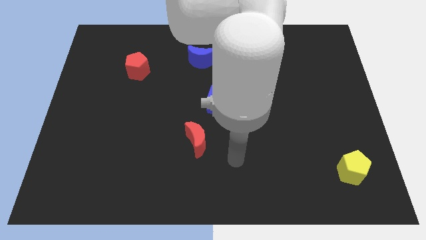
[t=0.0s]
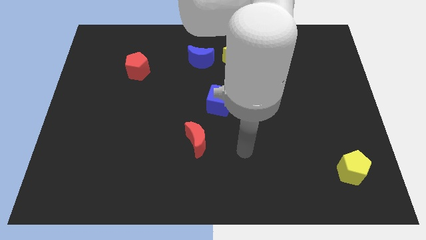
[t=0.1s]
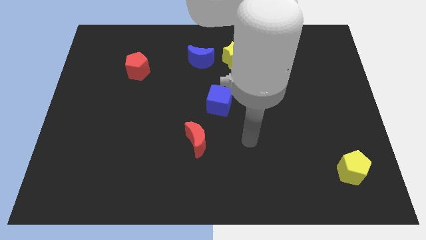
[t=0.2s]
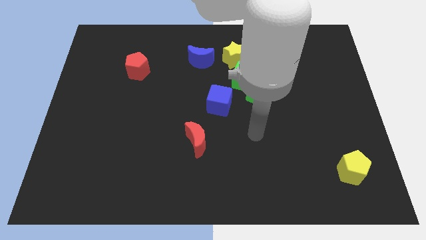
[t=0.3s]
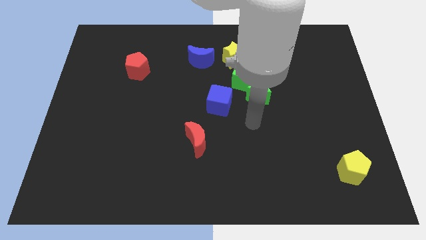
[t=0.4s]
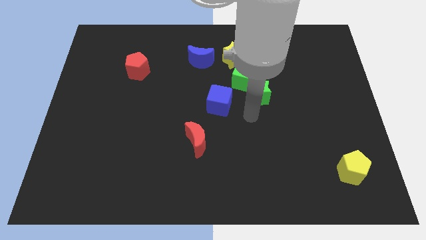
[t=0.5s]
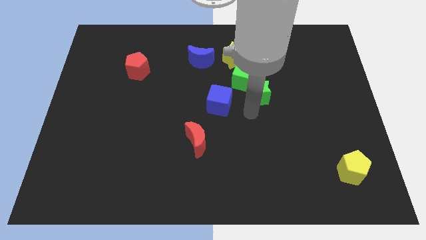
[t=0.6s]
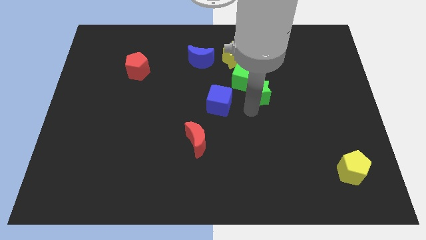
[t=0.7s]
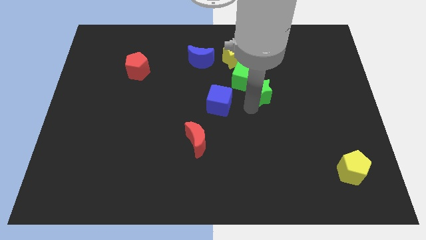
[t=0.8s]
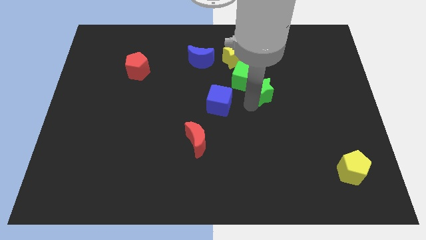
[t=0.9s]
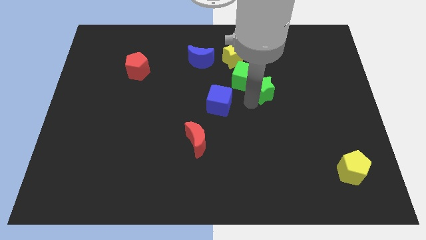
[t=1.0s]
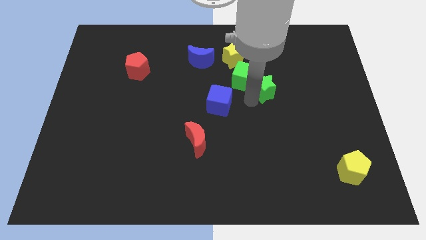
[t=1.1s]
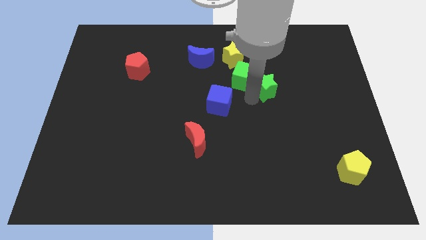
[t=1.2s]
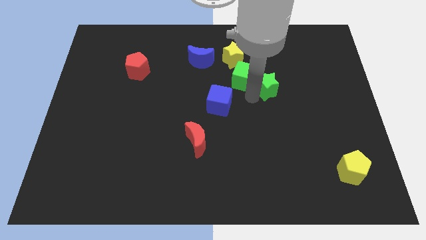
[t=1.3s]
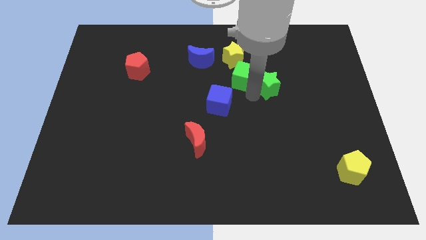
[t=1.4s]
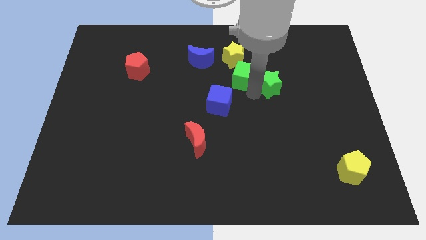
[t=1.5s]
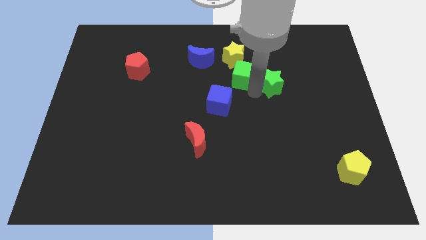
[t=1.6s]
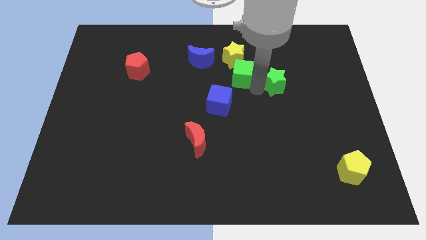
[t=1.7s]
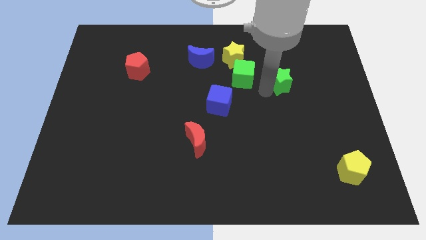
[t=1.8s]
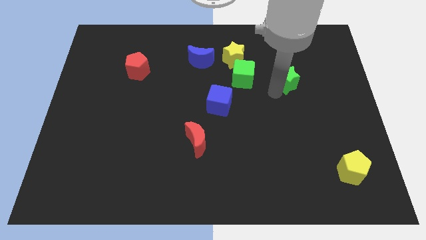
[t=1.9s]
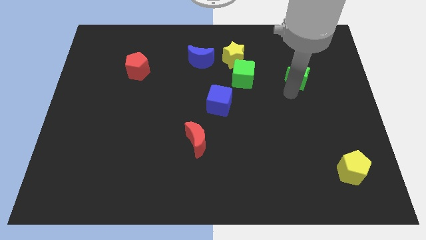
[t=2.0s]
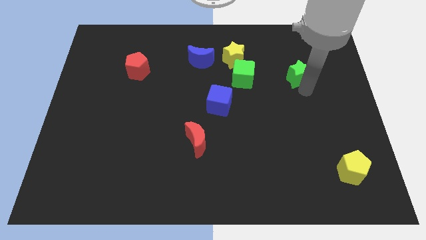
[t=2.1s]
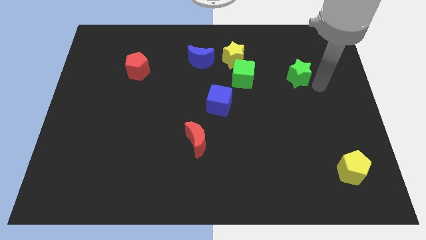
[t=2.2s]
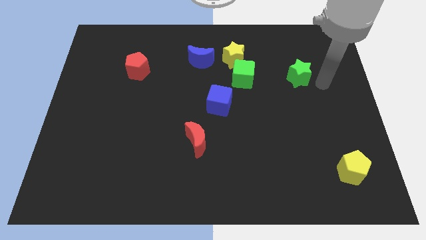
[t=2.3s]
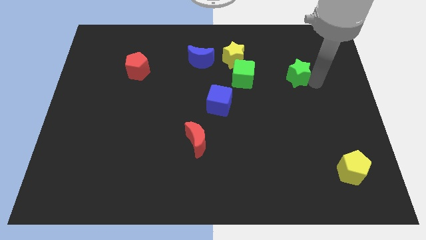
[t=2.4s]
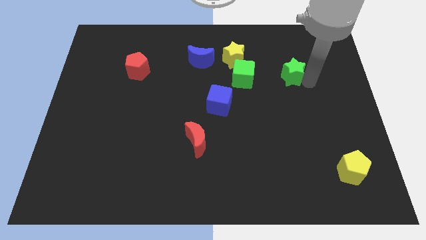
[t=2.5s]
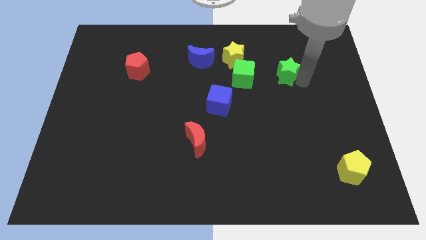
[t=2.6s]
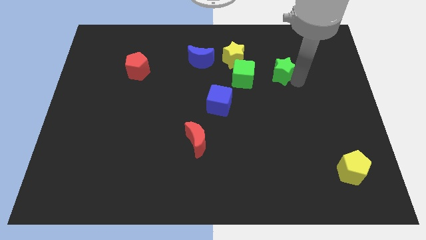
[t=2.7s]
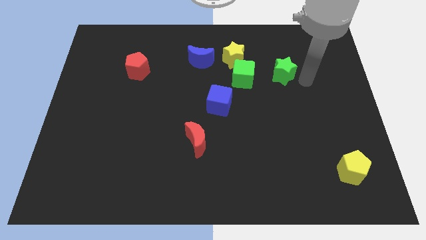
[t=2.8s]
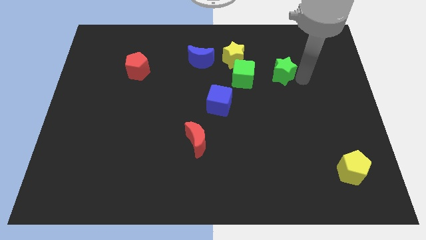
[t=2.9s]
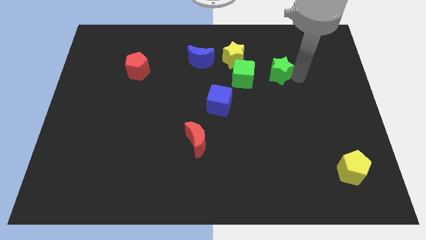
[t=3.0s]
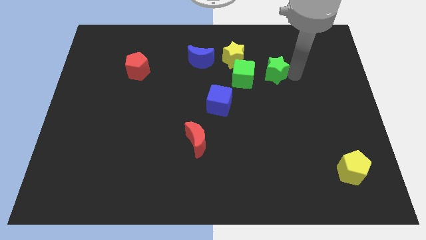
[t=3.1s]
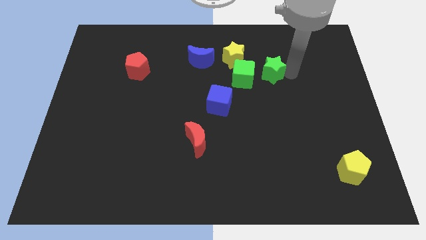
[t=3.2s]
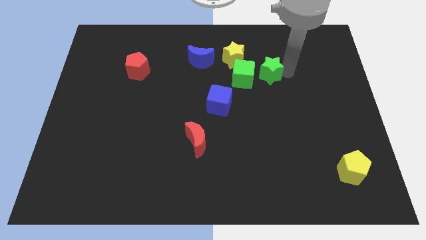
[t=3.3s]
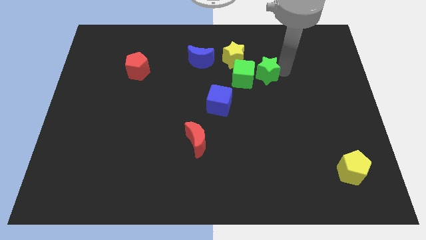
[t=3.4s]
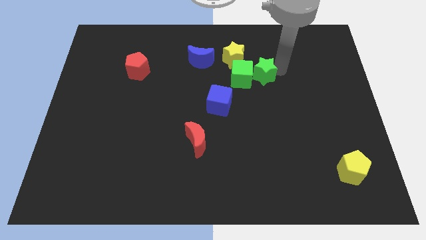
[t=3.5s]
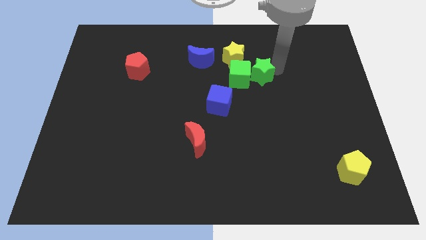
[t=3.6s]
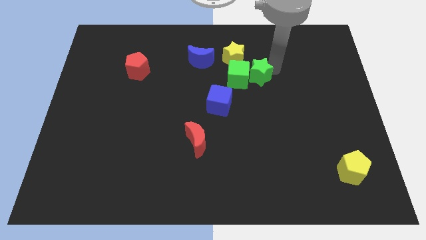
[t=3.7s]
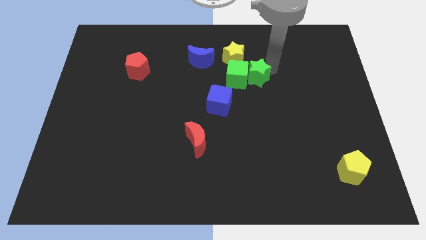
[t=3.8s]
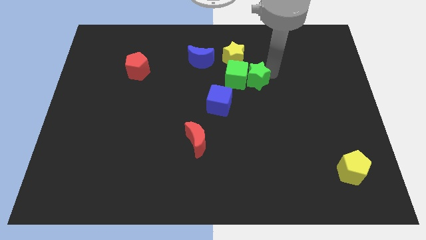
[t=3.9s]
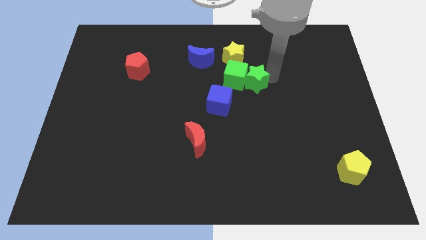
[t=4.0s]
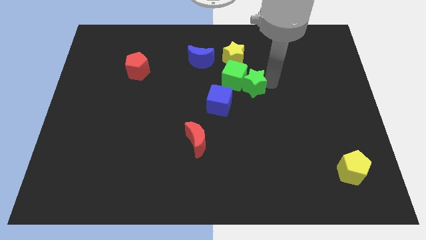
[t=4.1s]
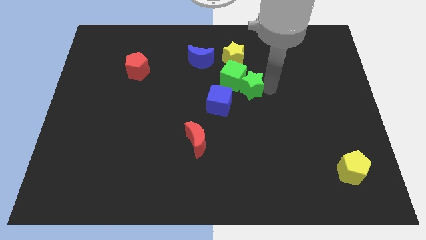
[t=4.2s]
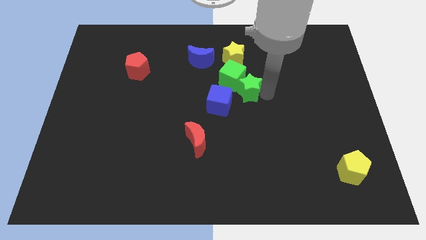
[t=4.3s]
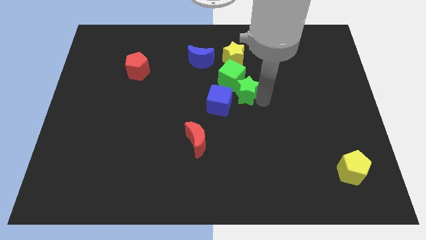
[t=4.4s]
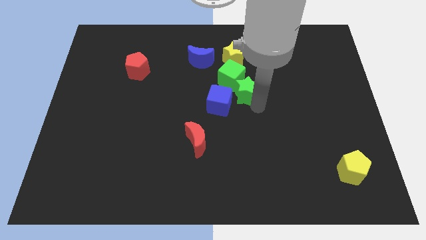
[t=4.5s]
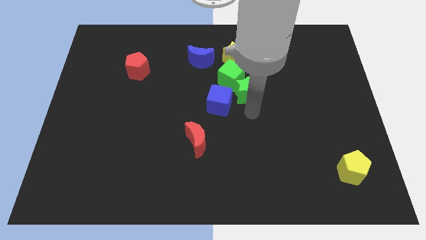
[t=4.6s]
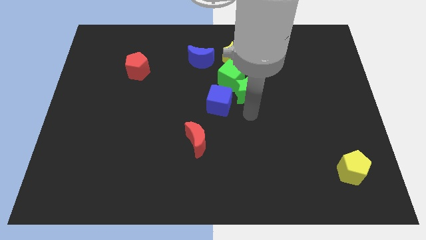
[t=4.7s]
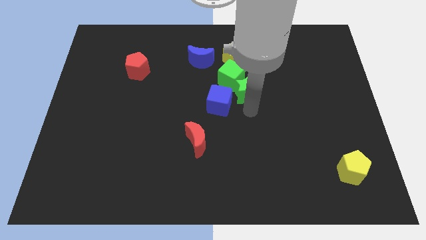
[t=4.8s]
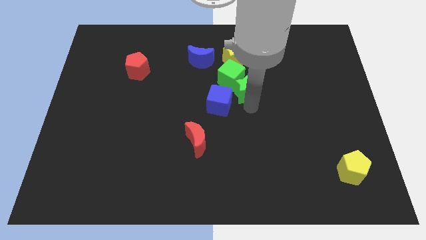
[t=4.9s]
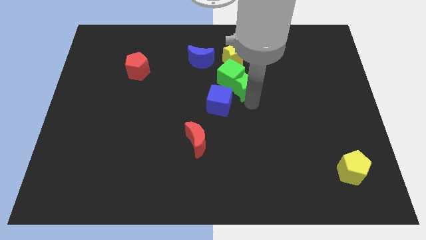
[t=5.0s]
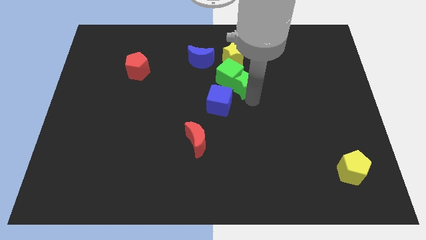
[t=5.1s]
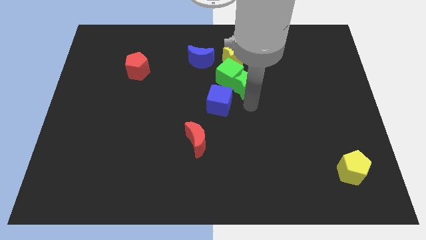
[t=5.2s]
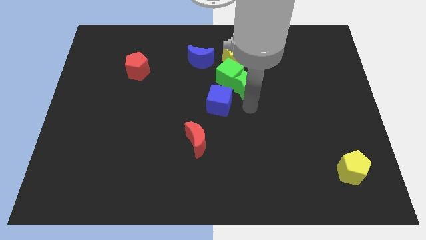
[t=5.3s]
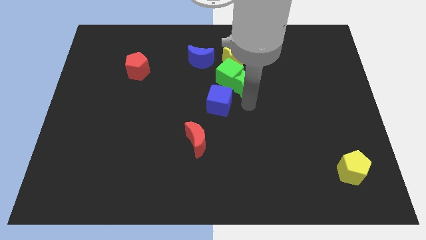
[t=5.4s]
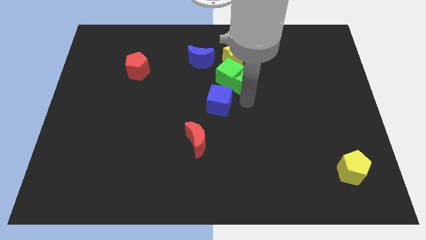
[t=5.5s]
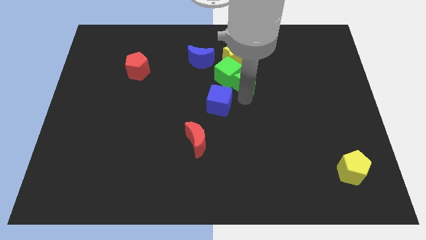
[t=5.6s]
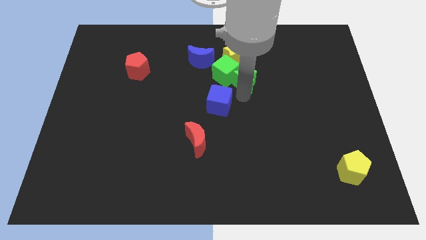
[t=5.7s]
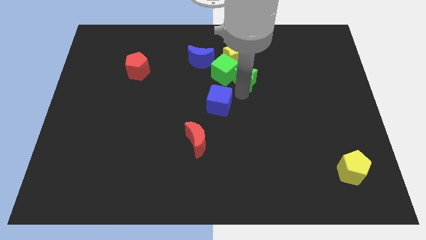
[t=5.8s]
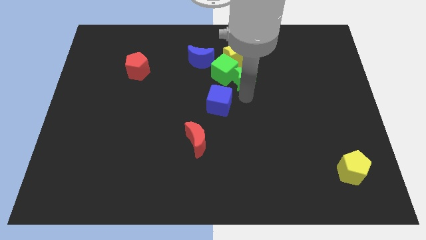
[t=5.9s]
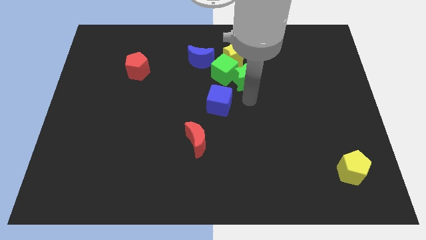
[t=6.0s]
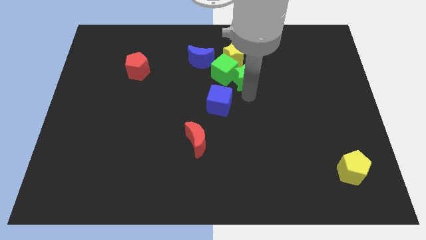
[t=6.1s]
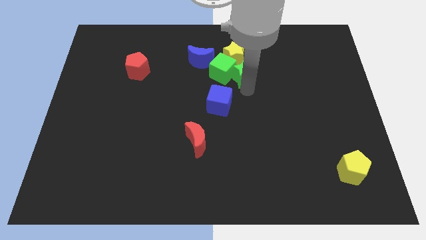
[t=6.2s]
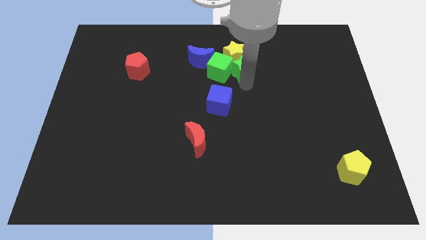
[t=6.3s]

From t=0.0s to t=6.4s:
move the green star right of the blue moon
